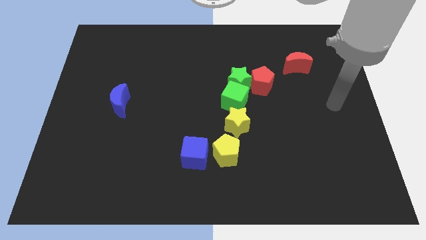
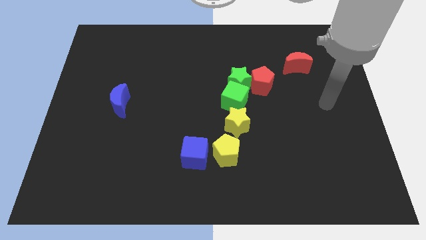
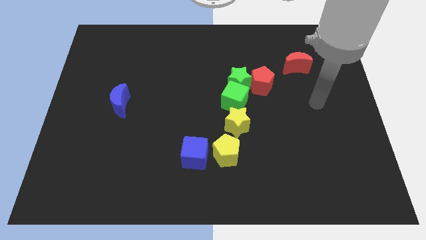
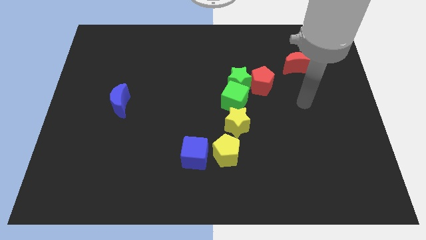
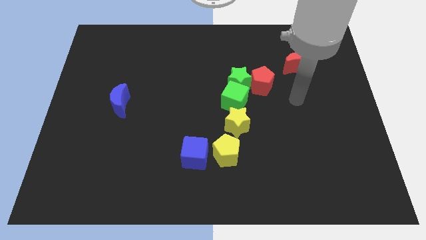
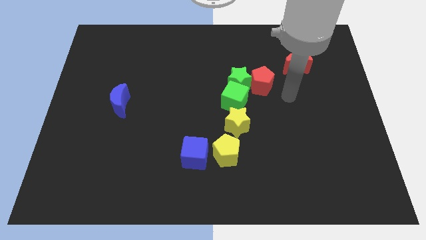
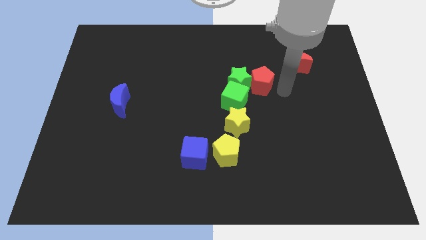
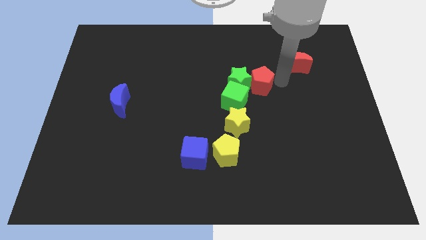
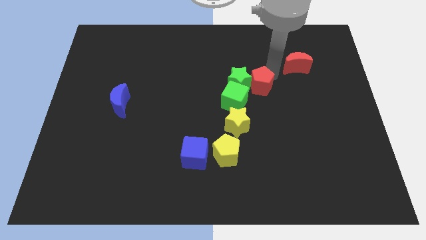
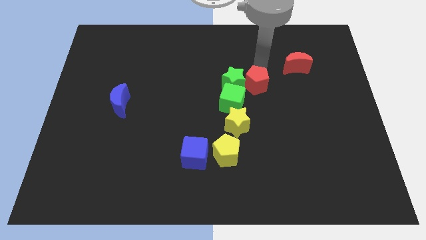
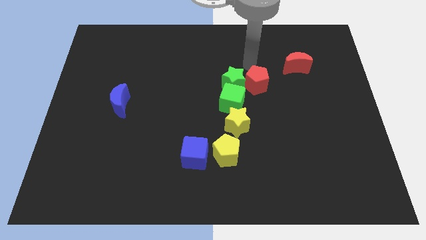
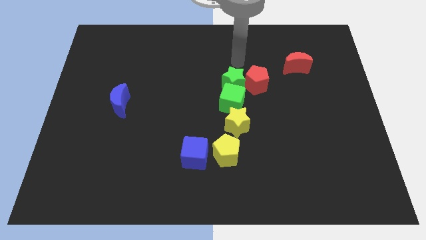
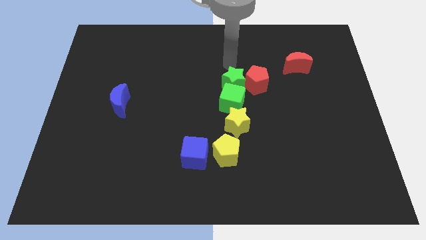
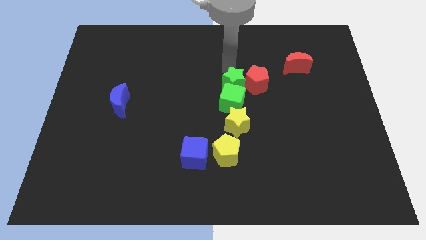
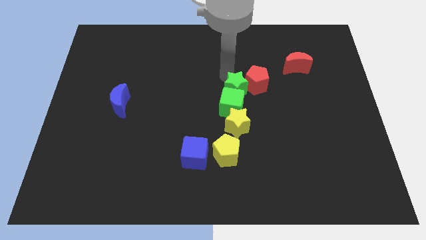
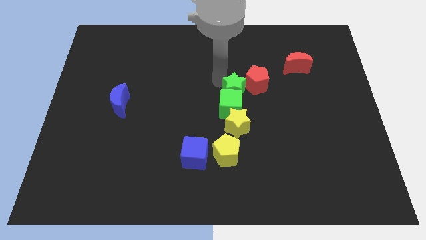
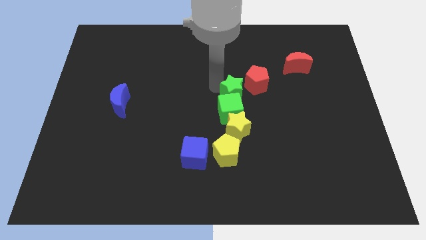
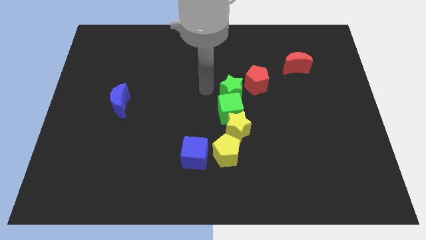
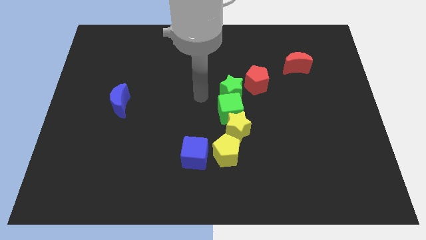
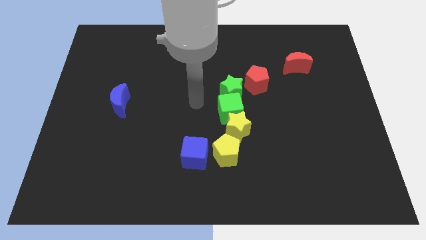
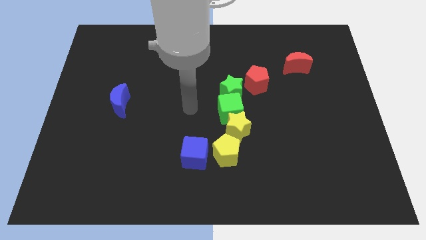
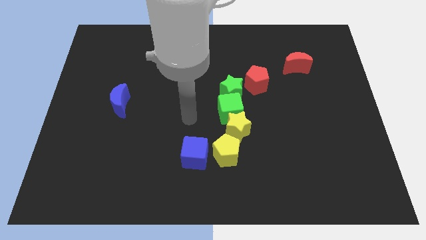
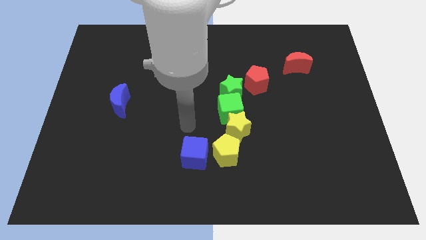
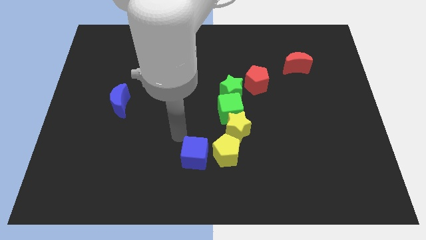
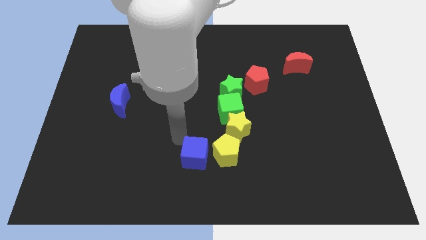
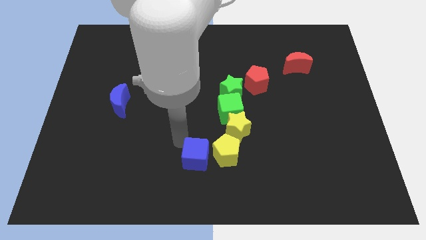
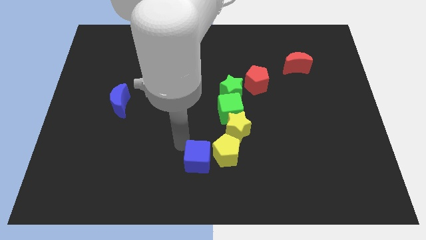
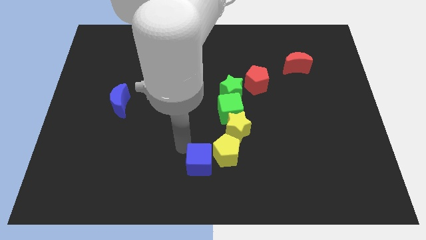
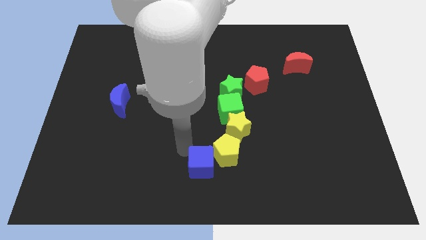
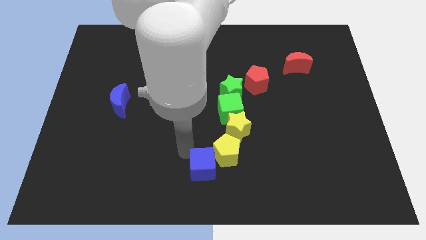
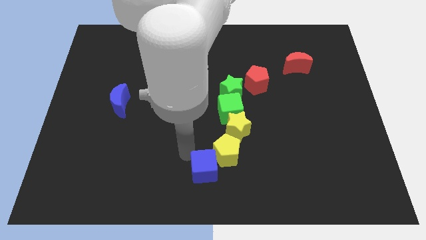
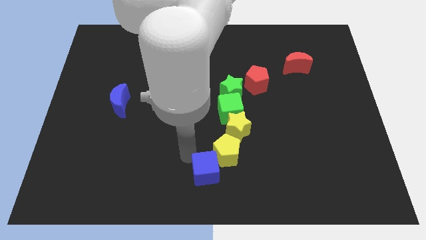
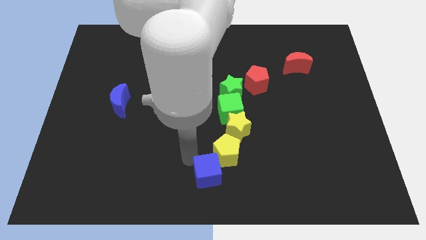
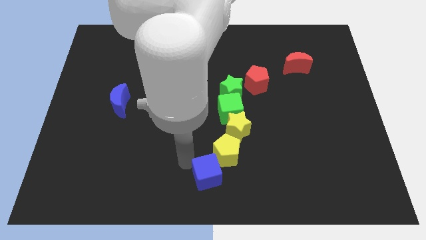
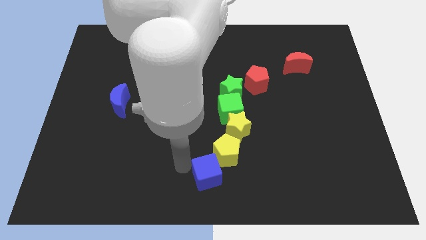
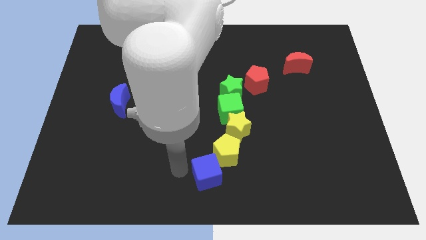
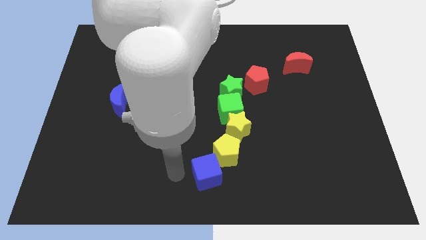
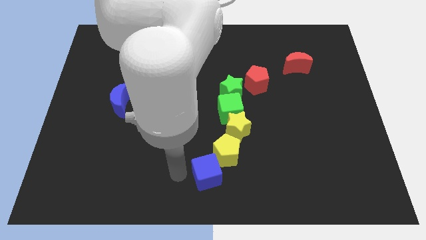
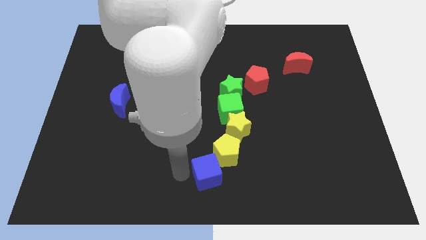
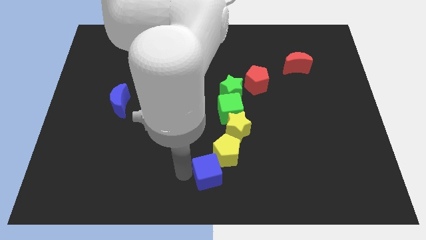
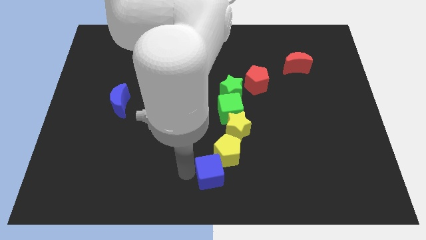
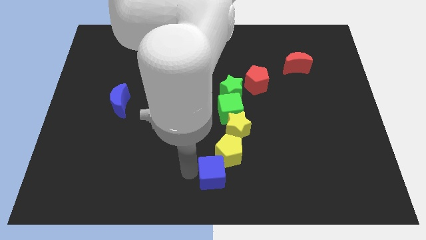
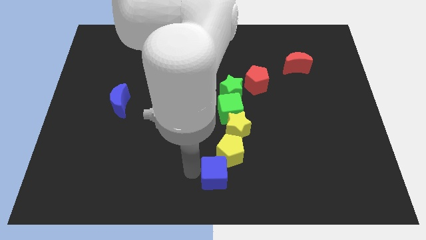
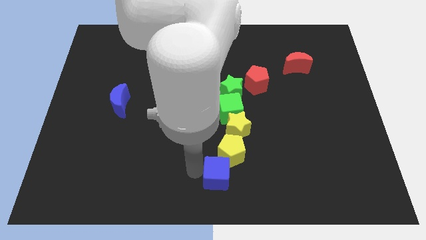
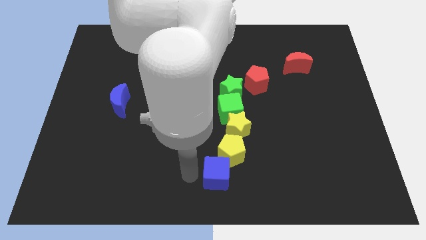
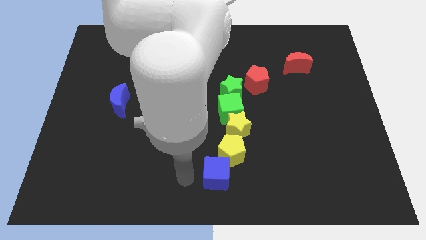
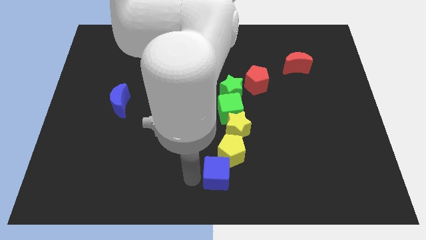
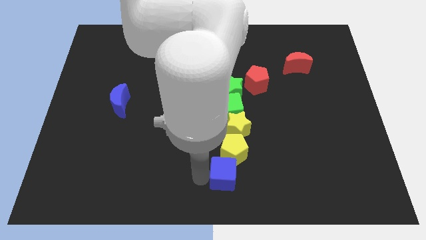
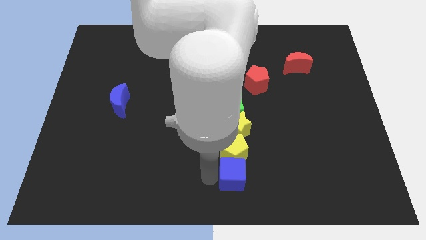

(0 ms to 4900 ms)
slightly push the blue cube right

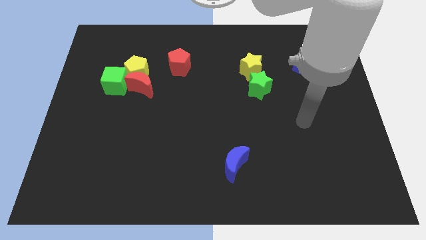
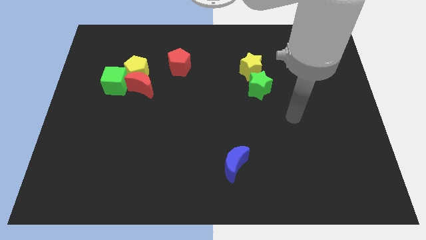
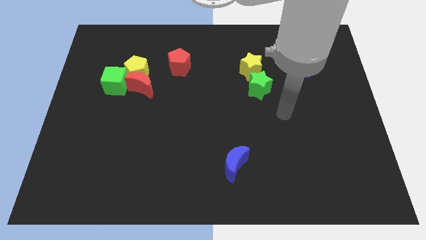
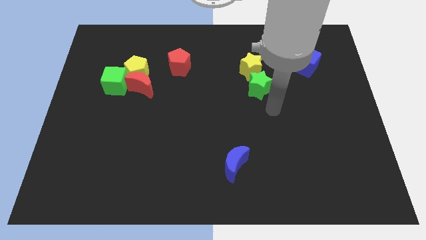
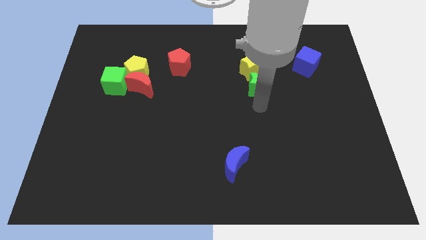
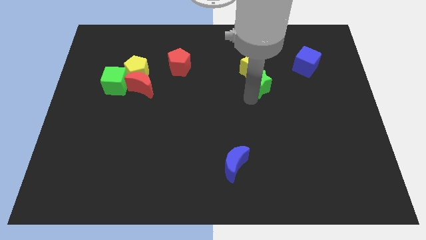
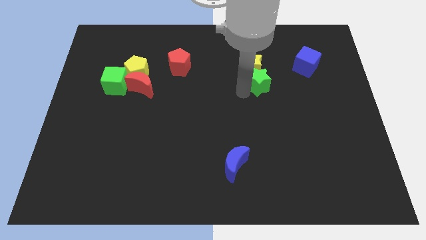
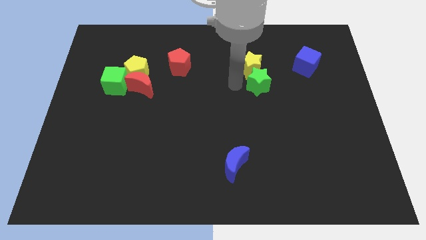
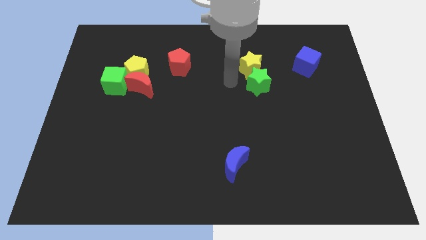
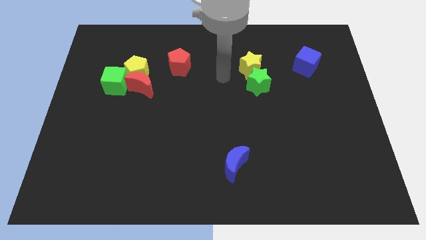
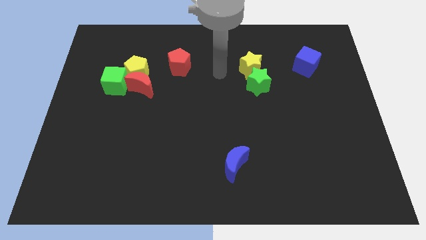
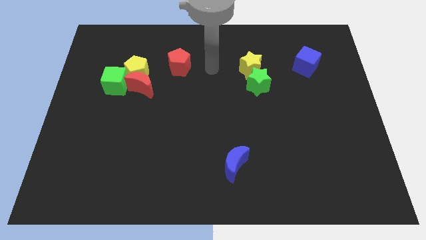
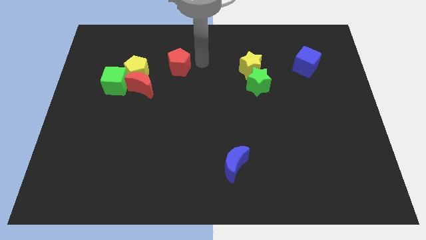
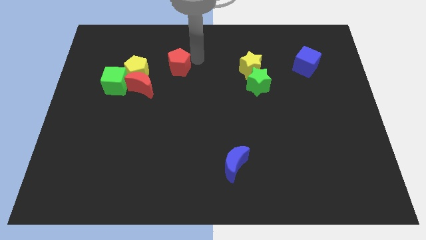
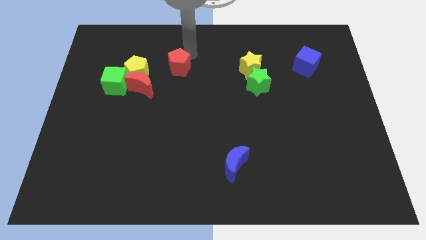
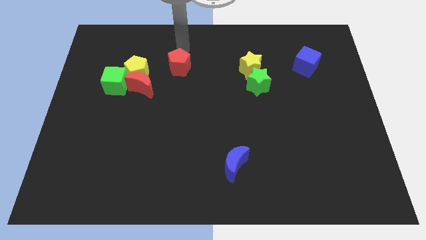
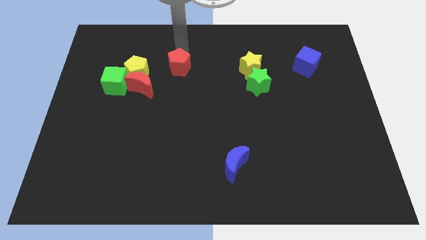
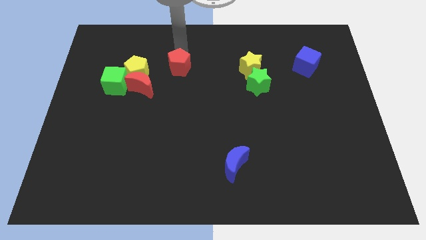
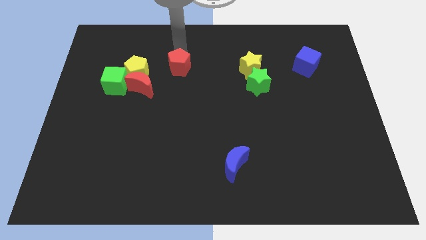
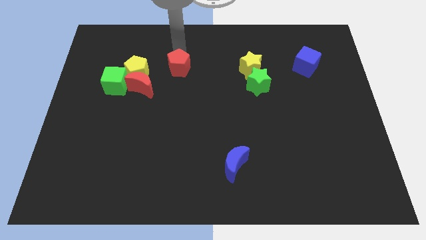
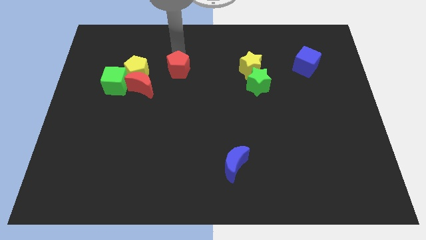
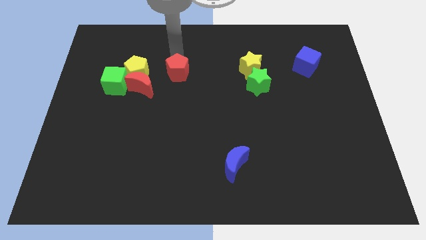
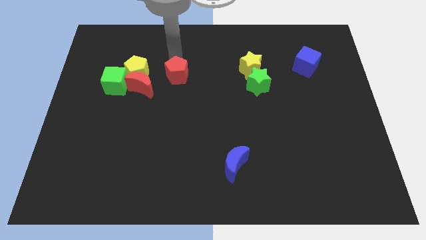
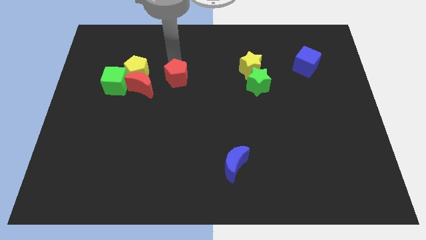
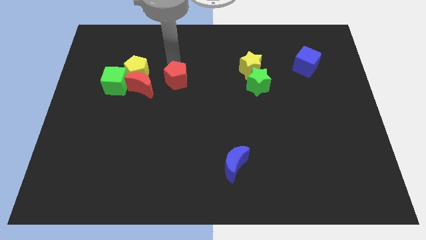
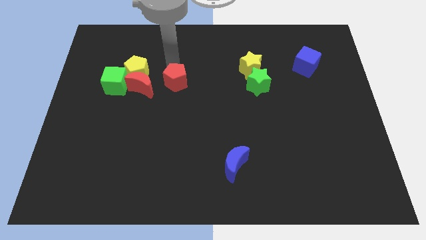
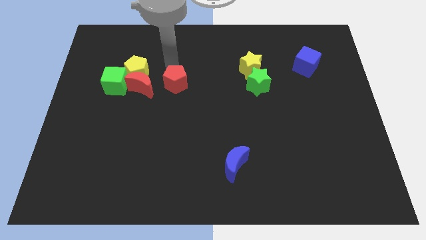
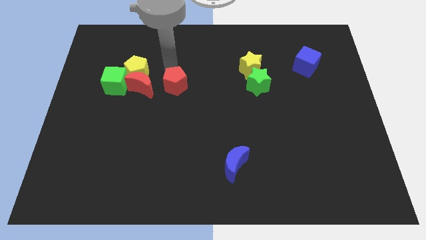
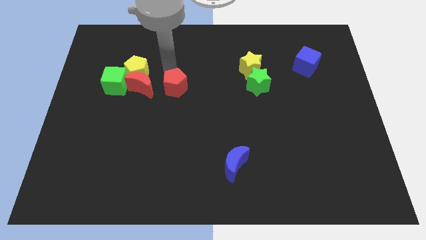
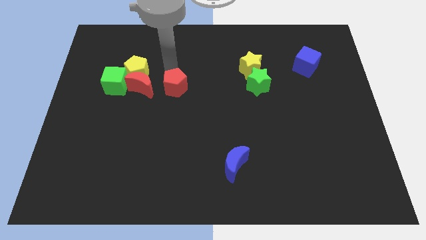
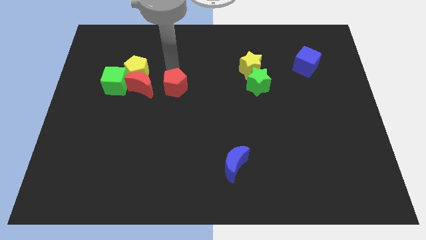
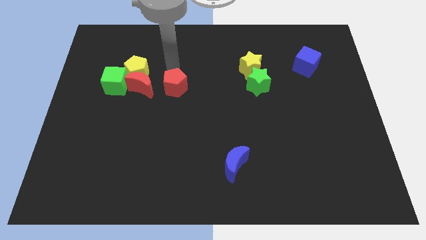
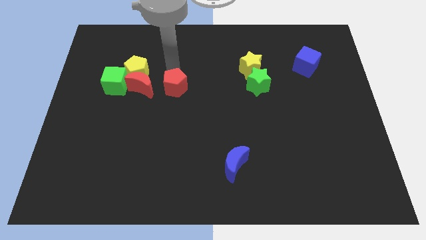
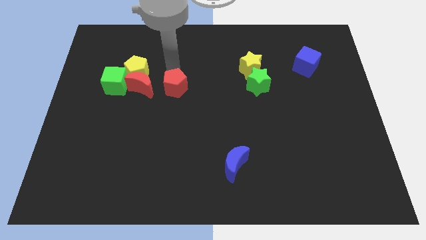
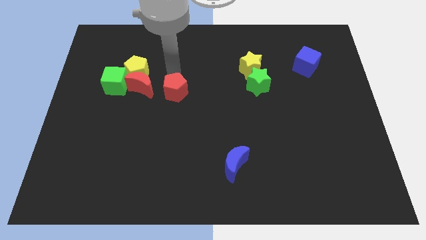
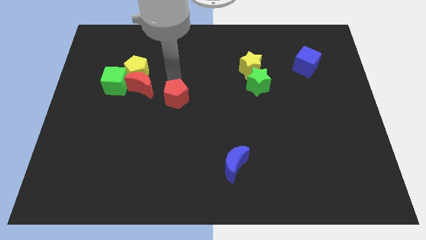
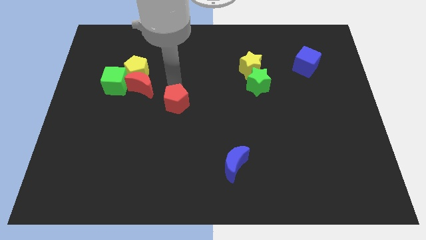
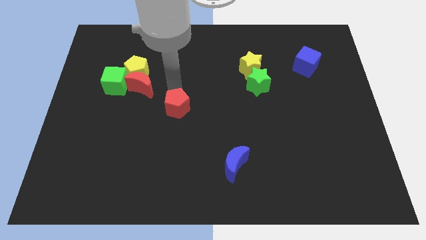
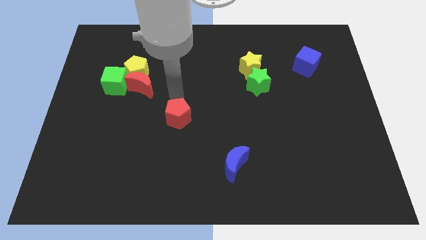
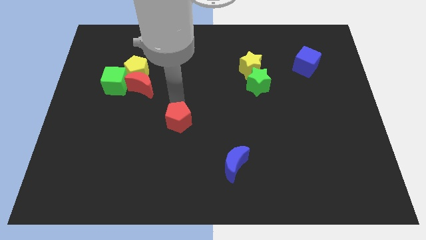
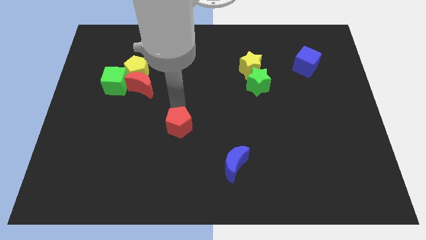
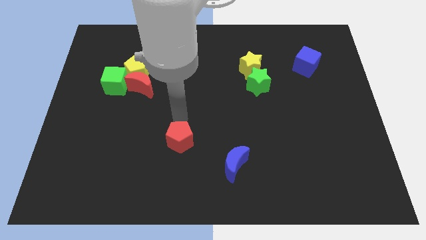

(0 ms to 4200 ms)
slide the red pentagon downwards
